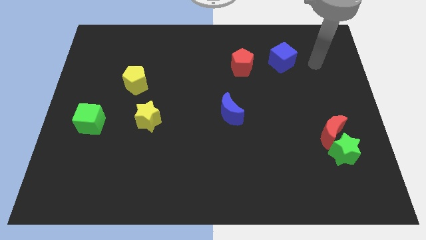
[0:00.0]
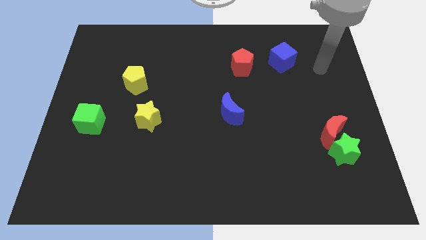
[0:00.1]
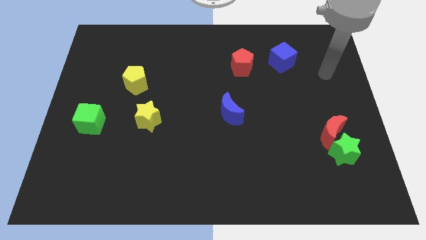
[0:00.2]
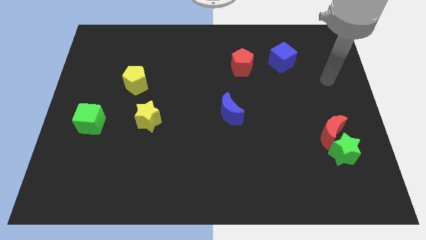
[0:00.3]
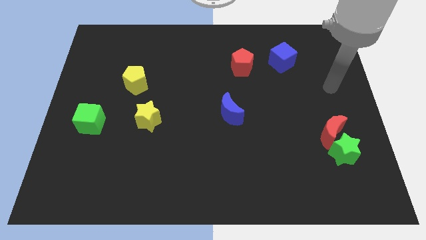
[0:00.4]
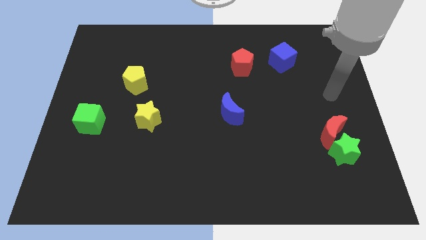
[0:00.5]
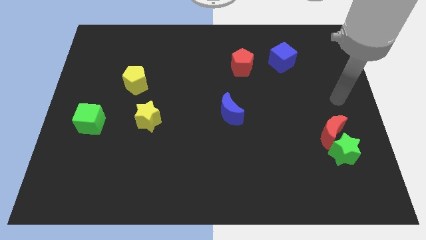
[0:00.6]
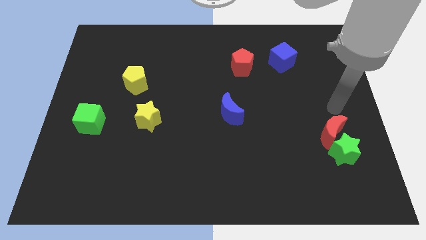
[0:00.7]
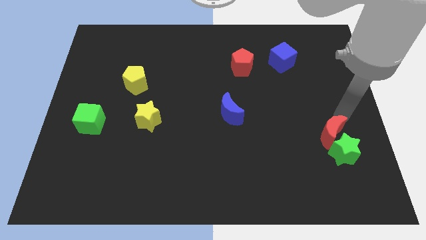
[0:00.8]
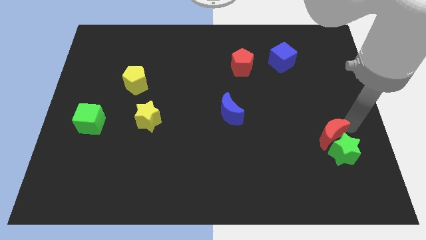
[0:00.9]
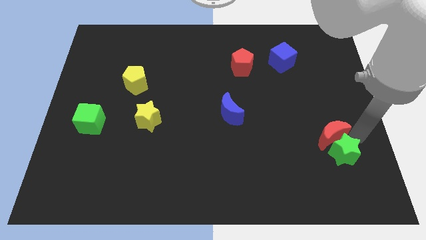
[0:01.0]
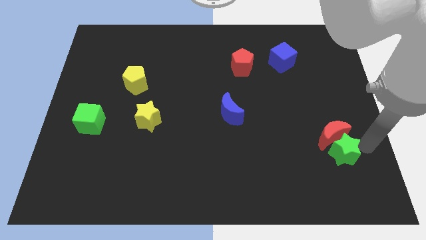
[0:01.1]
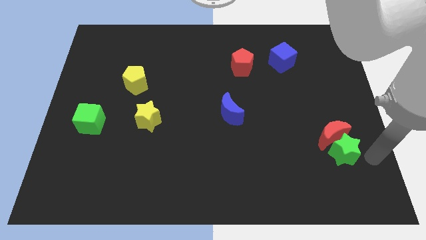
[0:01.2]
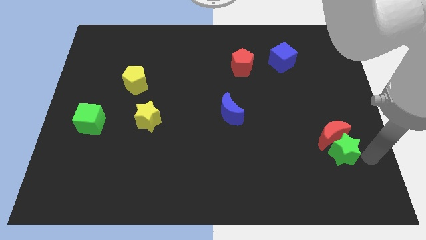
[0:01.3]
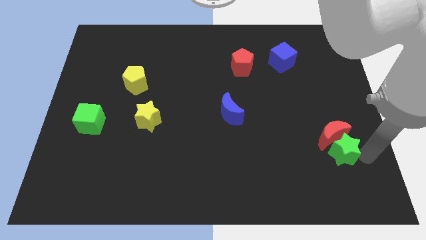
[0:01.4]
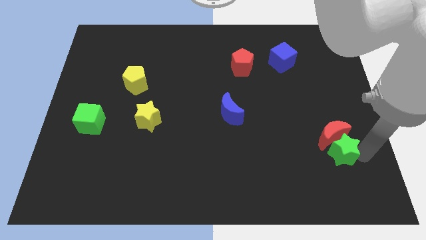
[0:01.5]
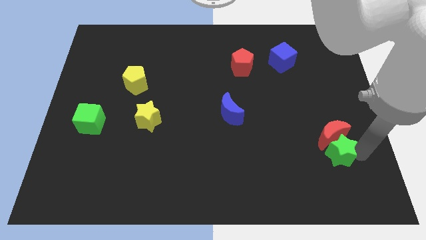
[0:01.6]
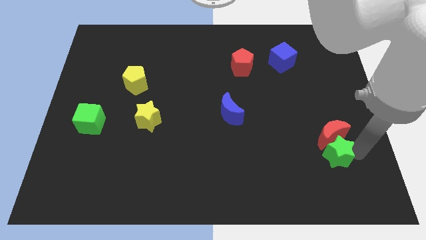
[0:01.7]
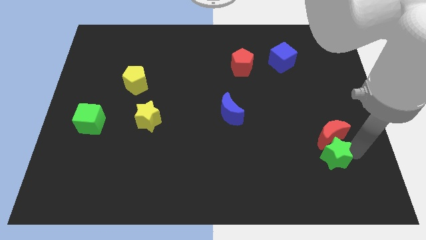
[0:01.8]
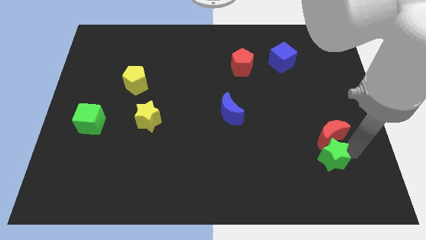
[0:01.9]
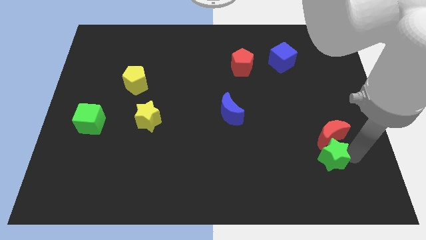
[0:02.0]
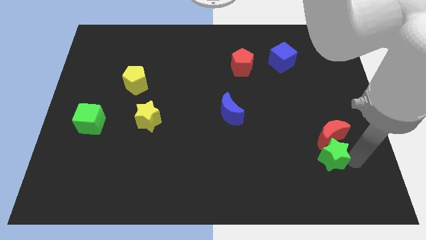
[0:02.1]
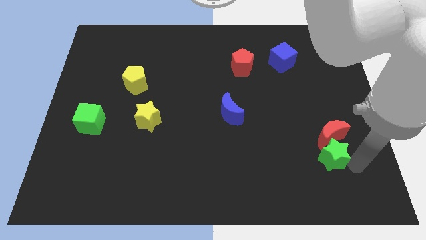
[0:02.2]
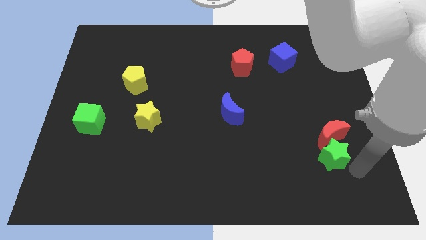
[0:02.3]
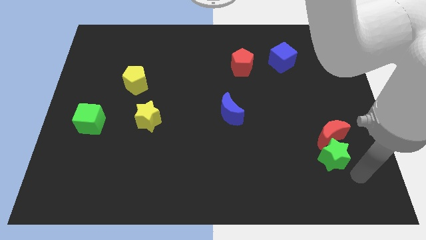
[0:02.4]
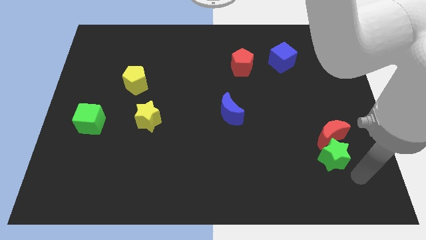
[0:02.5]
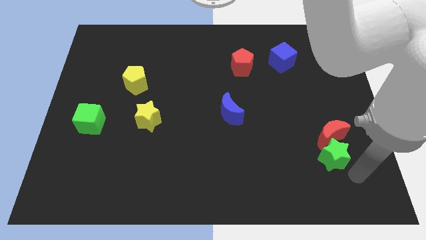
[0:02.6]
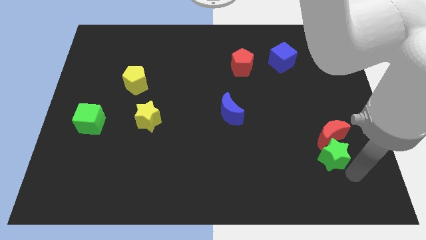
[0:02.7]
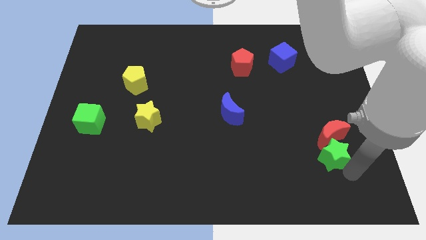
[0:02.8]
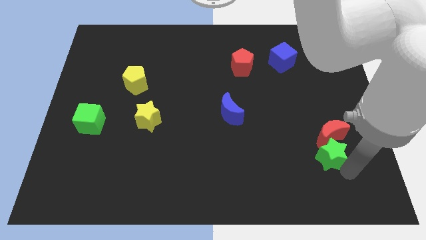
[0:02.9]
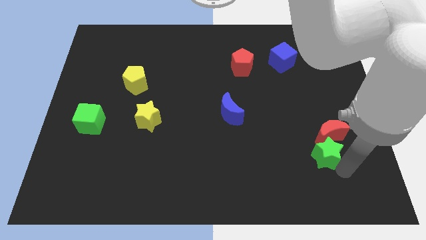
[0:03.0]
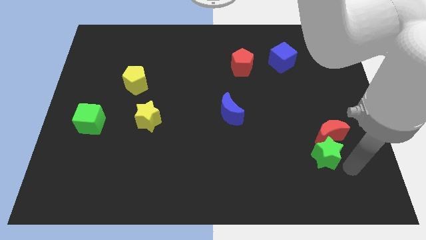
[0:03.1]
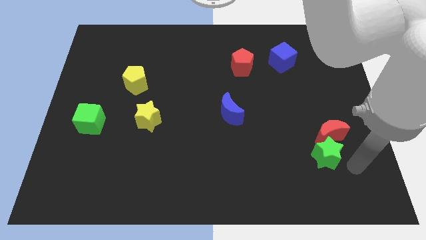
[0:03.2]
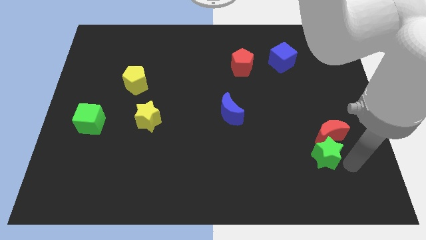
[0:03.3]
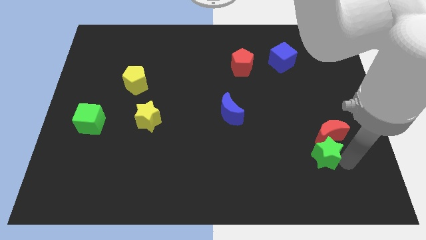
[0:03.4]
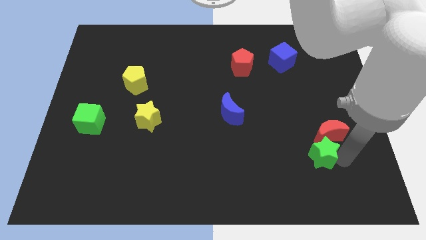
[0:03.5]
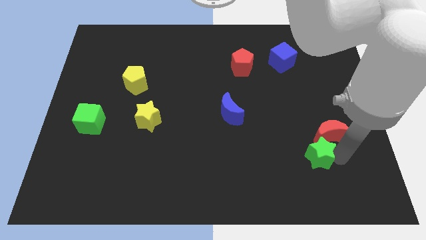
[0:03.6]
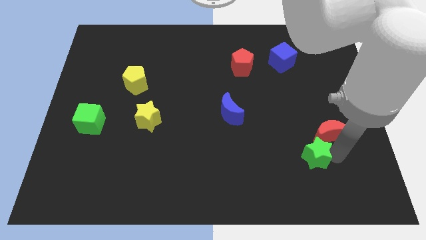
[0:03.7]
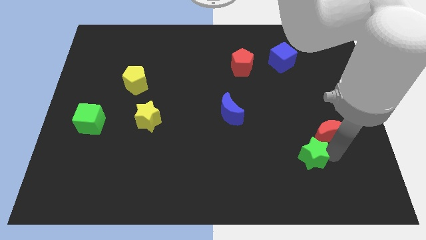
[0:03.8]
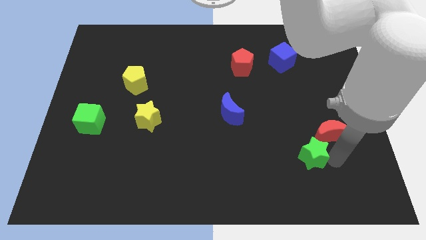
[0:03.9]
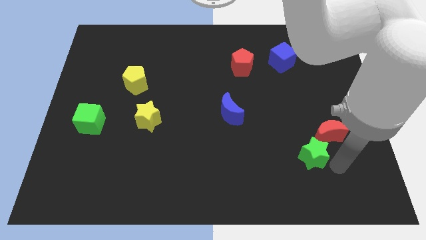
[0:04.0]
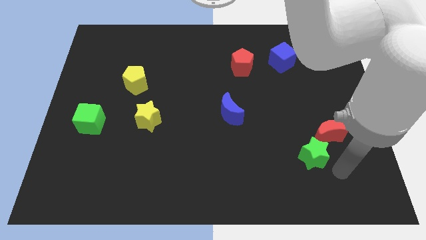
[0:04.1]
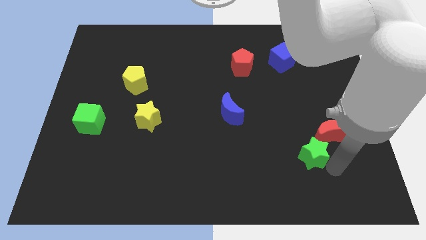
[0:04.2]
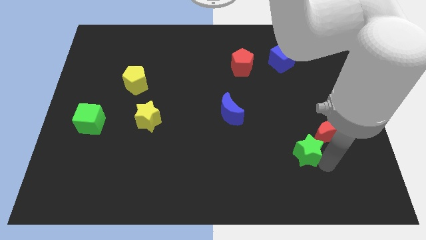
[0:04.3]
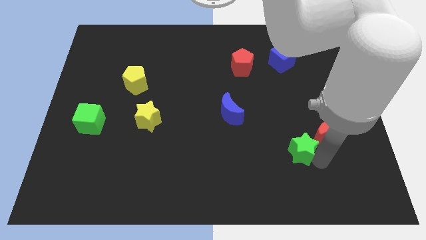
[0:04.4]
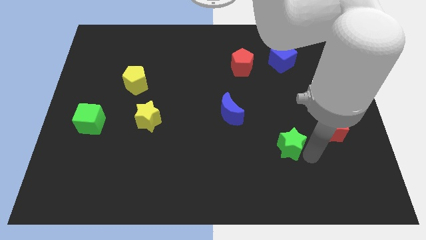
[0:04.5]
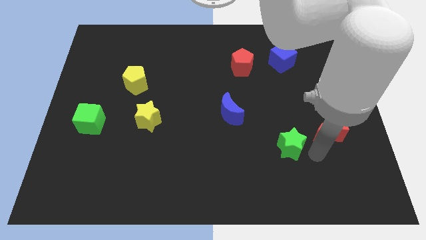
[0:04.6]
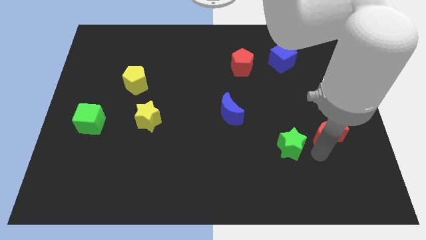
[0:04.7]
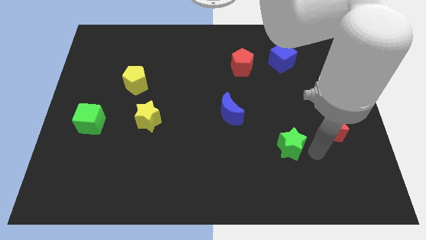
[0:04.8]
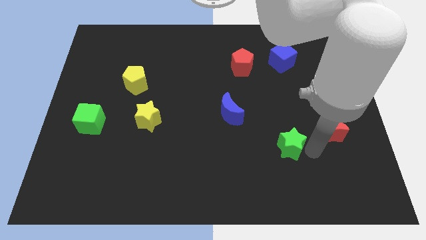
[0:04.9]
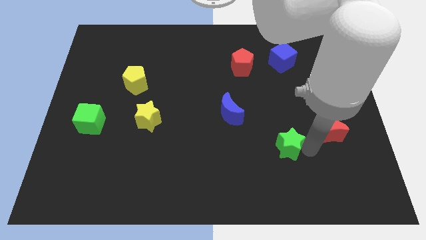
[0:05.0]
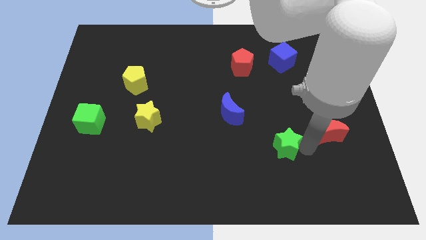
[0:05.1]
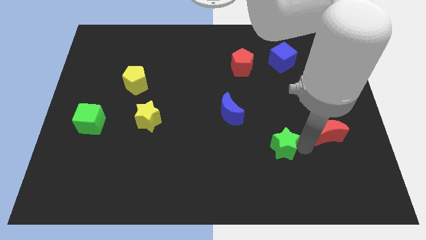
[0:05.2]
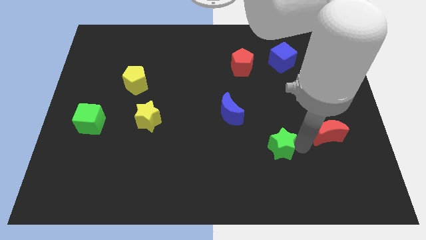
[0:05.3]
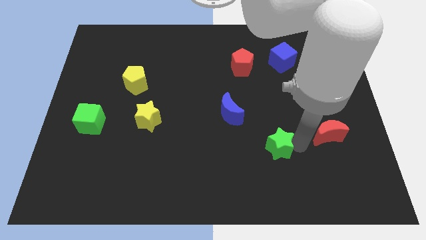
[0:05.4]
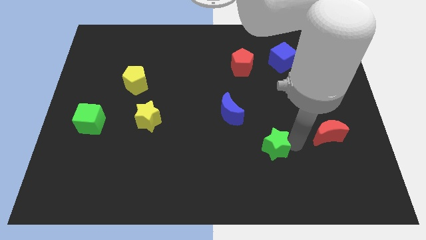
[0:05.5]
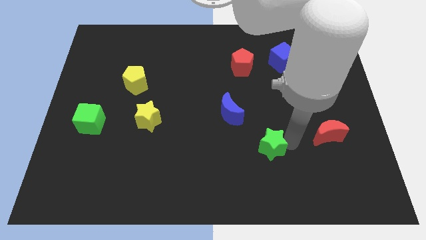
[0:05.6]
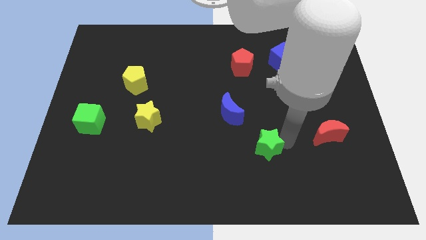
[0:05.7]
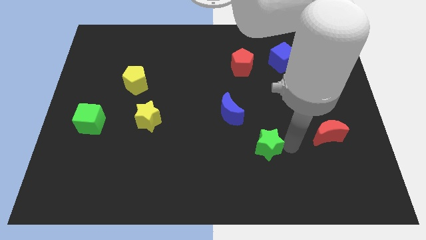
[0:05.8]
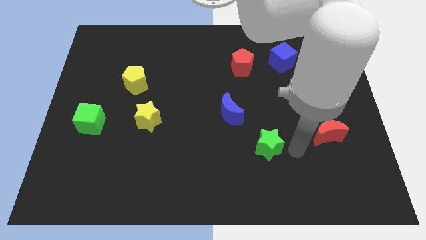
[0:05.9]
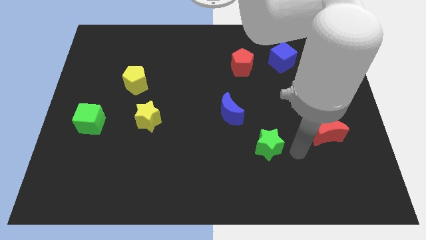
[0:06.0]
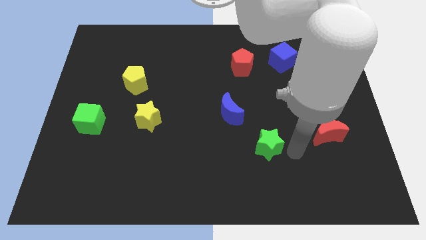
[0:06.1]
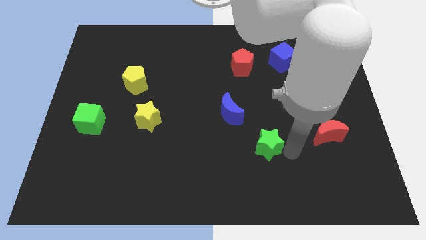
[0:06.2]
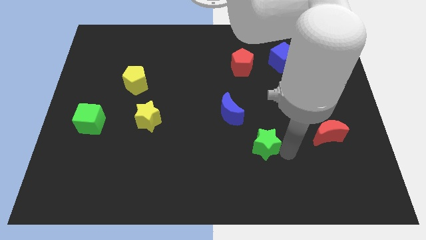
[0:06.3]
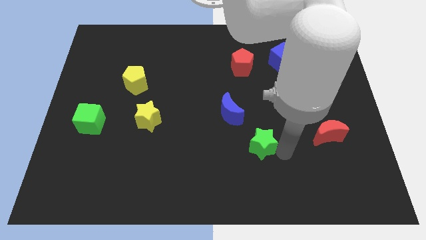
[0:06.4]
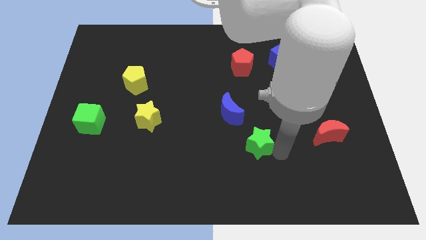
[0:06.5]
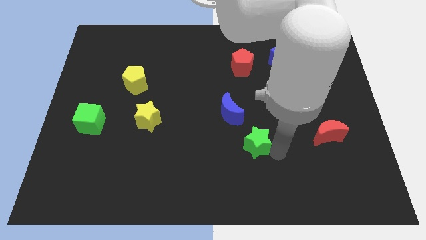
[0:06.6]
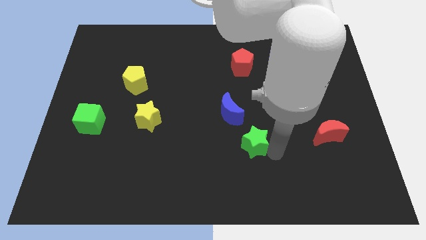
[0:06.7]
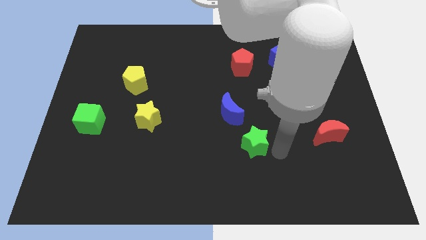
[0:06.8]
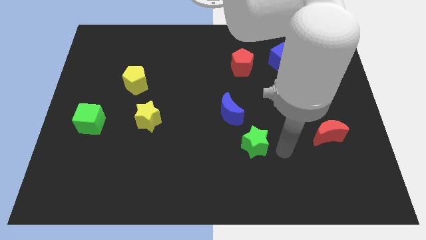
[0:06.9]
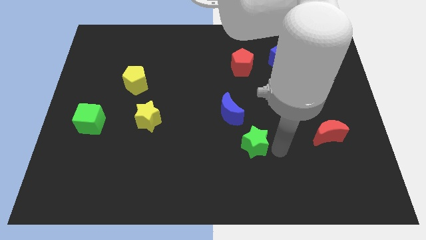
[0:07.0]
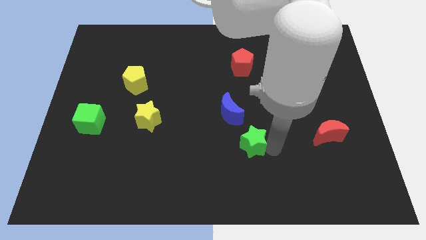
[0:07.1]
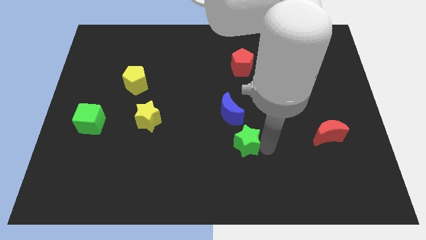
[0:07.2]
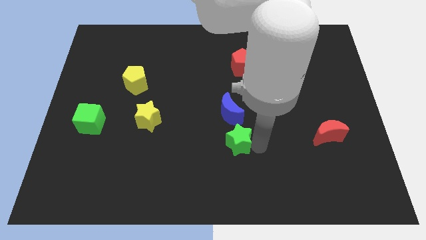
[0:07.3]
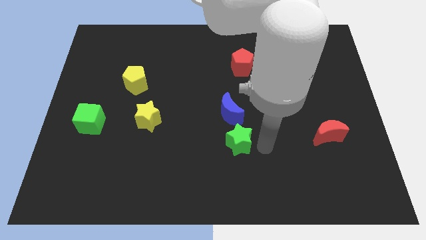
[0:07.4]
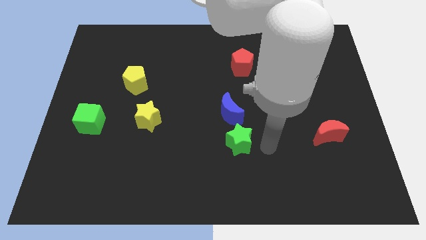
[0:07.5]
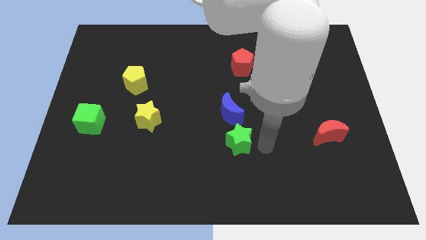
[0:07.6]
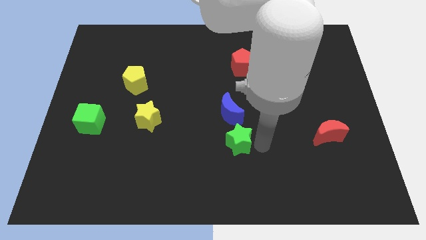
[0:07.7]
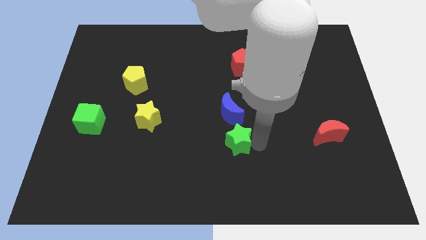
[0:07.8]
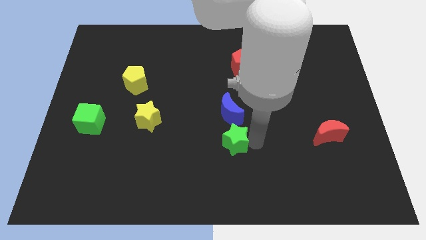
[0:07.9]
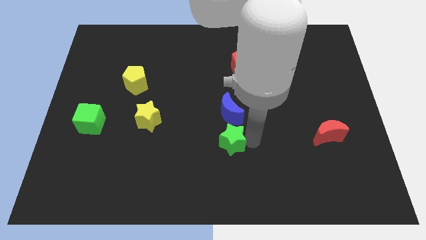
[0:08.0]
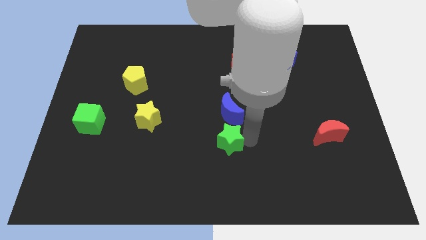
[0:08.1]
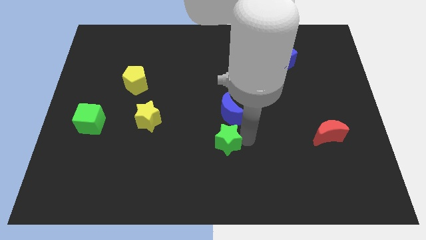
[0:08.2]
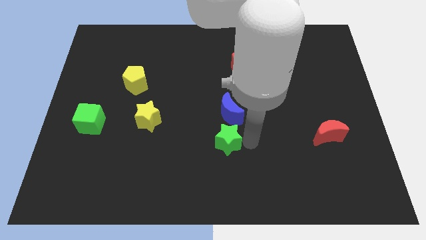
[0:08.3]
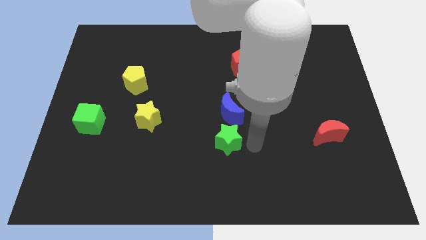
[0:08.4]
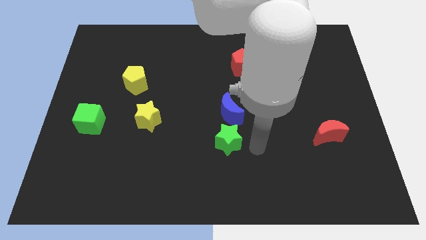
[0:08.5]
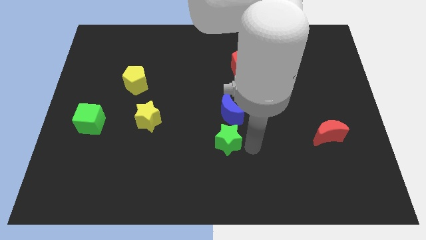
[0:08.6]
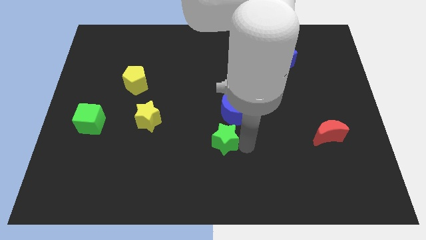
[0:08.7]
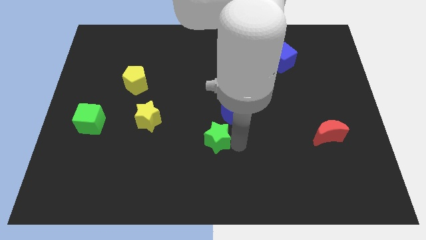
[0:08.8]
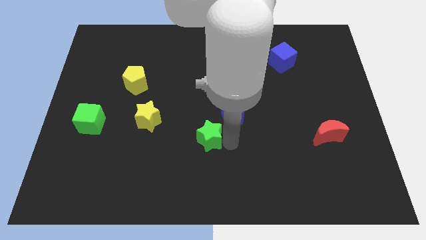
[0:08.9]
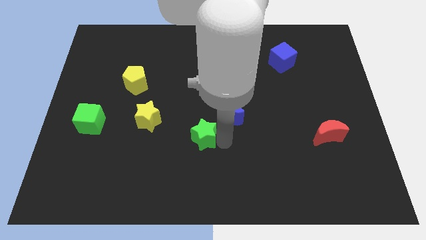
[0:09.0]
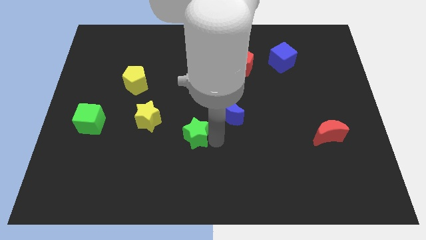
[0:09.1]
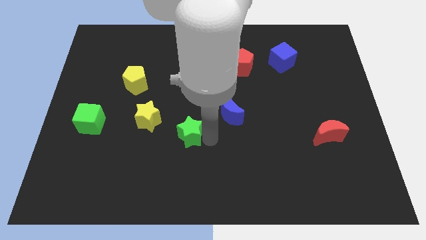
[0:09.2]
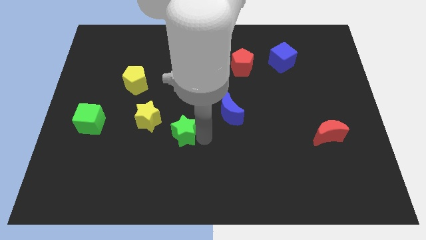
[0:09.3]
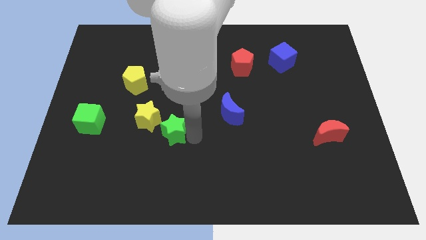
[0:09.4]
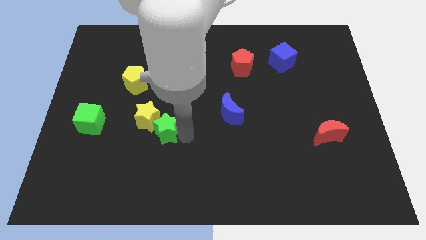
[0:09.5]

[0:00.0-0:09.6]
put the green star towards the yellow star
